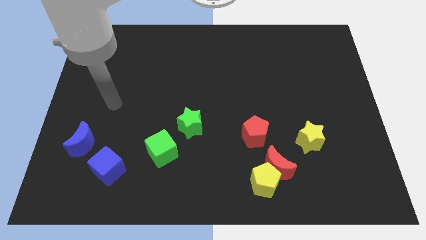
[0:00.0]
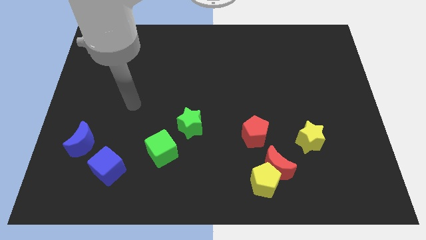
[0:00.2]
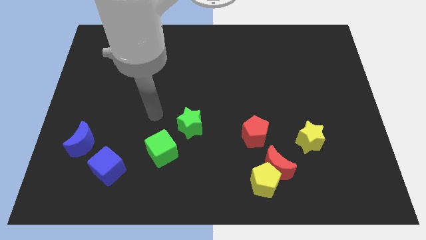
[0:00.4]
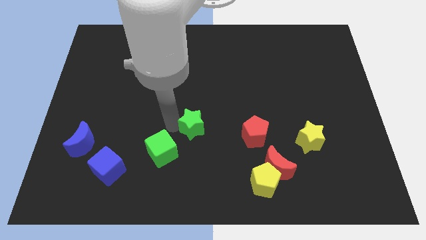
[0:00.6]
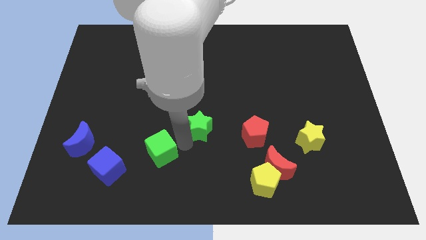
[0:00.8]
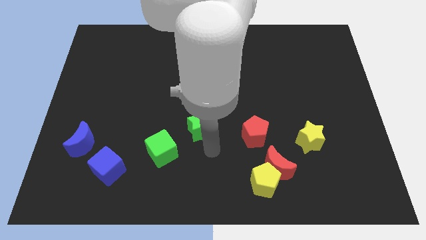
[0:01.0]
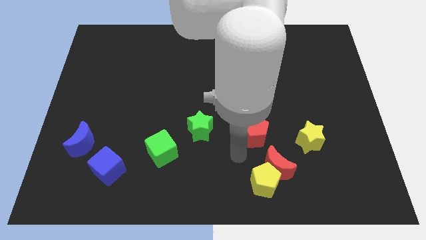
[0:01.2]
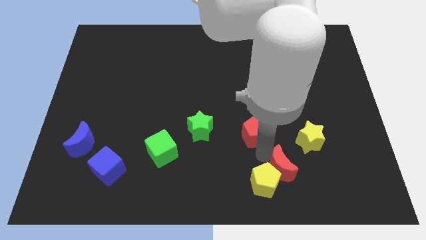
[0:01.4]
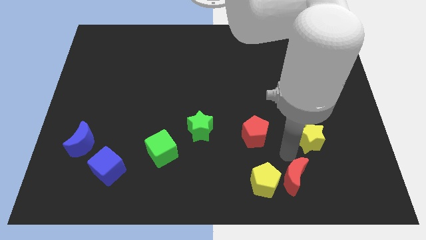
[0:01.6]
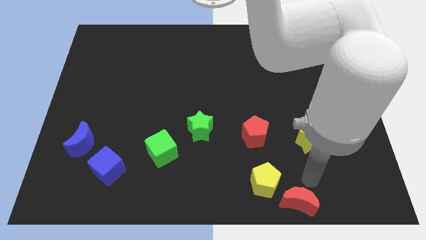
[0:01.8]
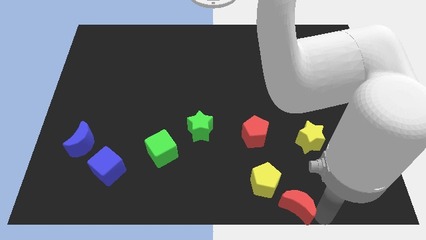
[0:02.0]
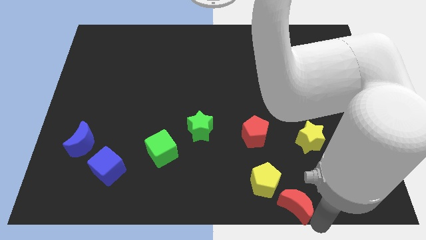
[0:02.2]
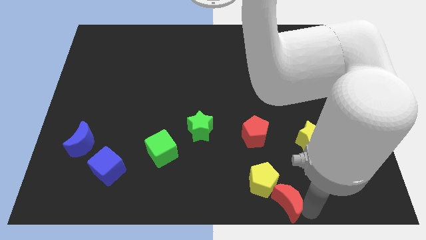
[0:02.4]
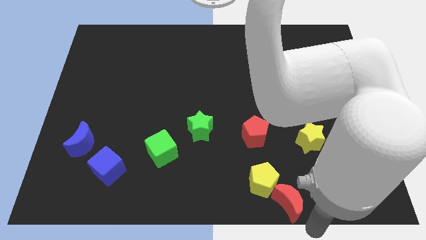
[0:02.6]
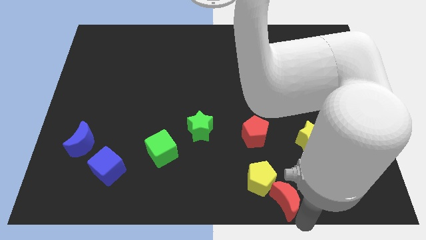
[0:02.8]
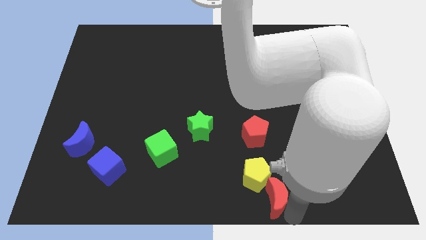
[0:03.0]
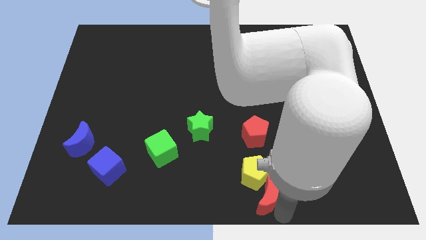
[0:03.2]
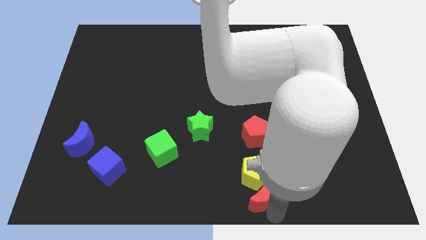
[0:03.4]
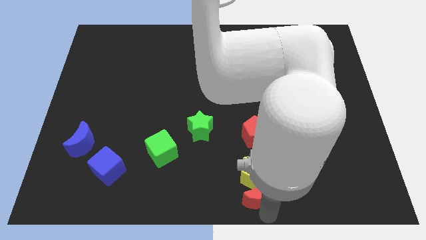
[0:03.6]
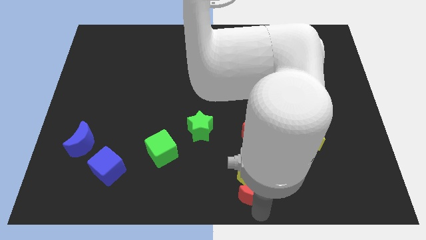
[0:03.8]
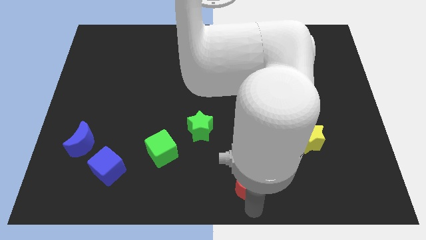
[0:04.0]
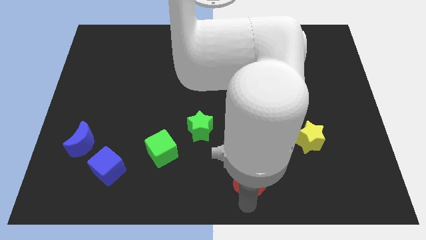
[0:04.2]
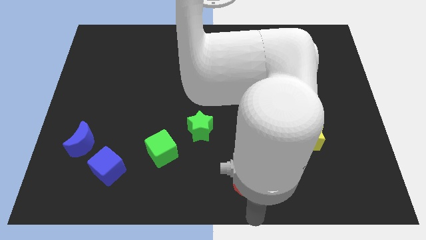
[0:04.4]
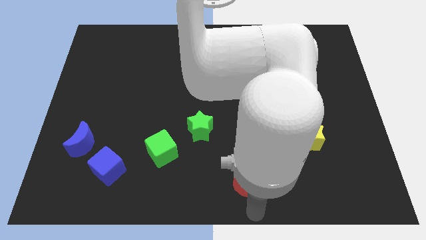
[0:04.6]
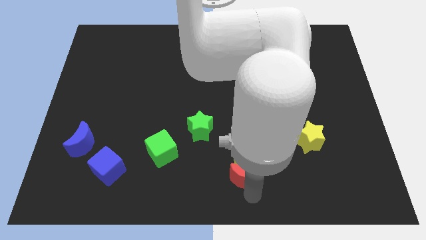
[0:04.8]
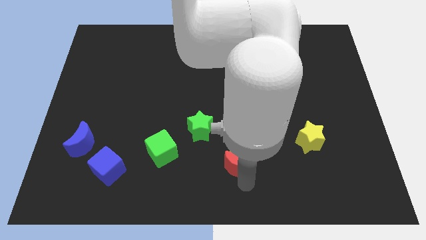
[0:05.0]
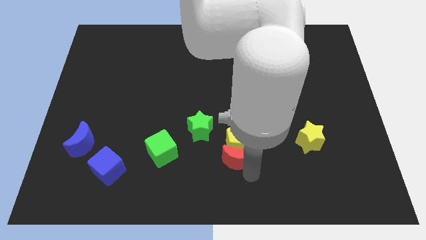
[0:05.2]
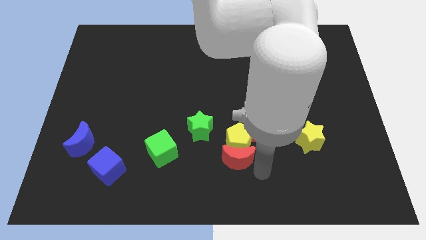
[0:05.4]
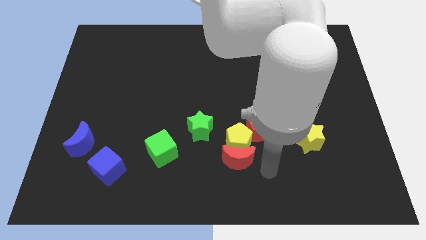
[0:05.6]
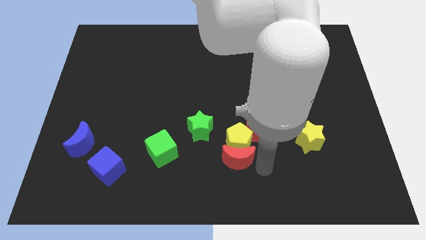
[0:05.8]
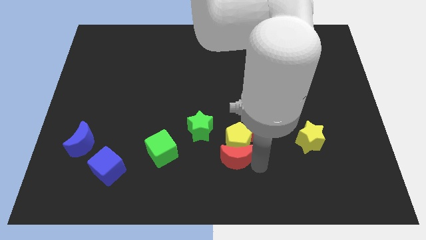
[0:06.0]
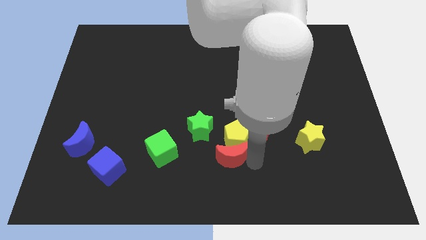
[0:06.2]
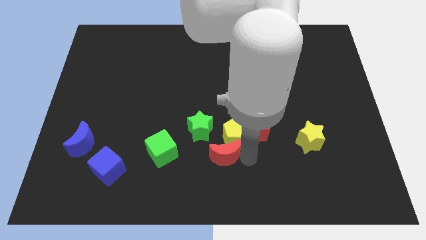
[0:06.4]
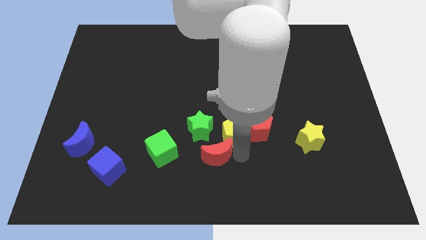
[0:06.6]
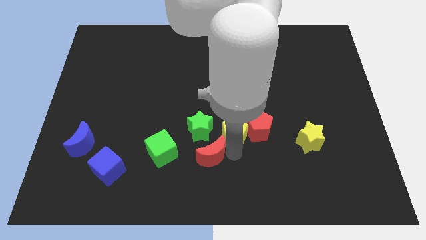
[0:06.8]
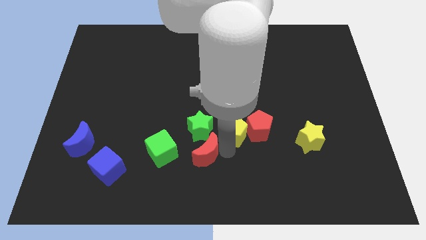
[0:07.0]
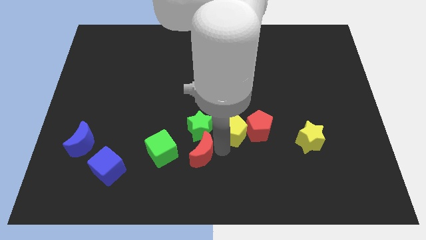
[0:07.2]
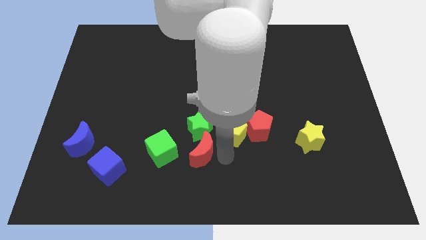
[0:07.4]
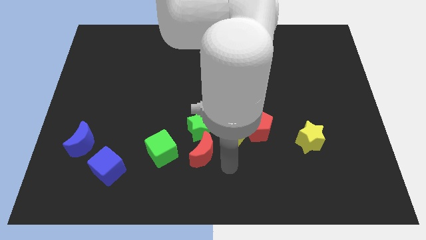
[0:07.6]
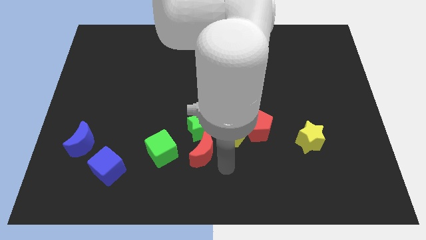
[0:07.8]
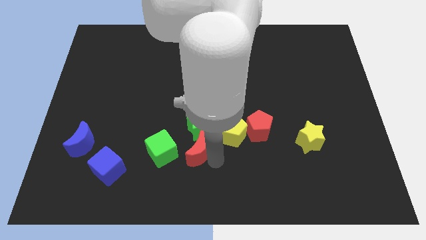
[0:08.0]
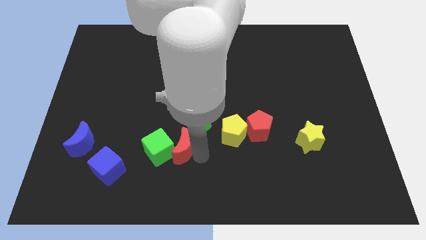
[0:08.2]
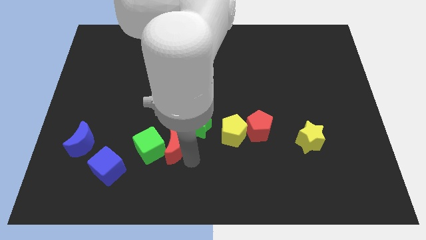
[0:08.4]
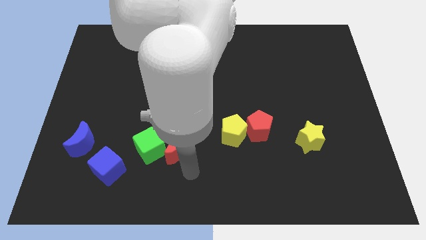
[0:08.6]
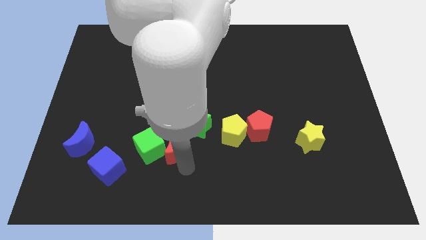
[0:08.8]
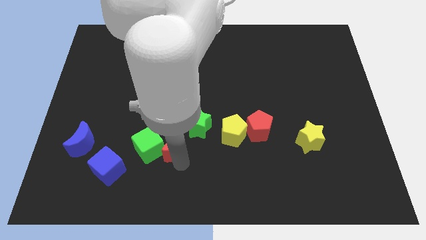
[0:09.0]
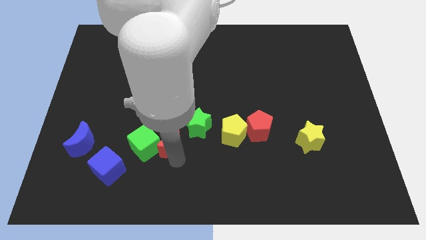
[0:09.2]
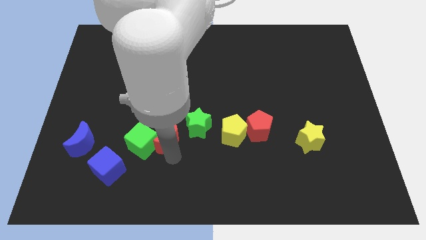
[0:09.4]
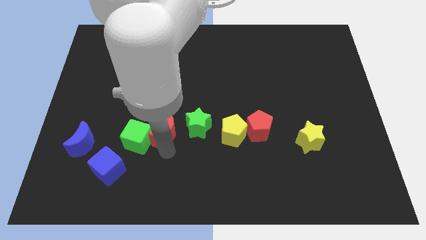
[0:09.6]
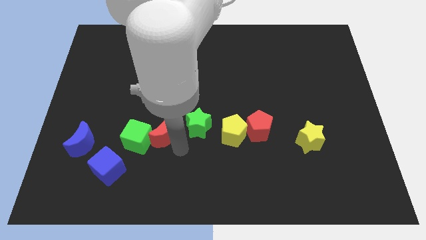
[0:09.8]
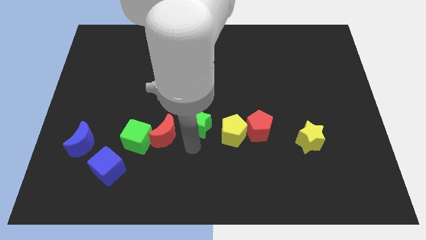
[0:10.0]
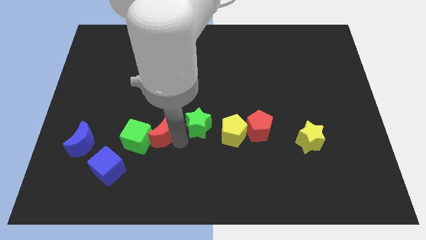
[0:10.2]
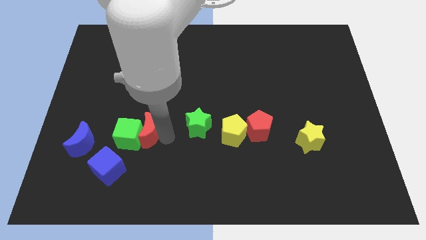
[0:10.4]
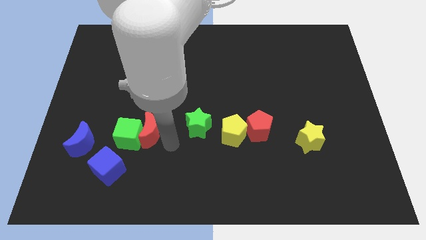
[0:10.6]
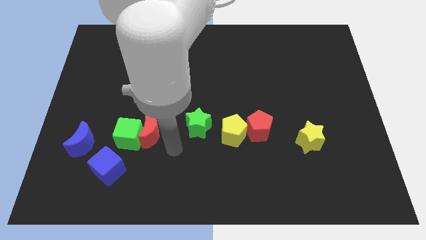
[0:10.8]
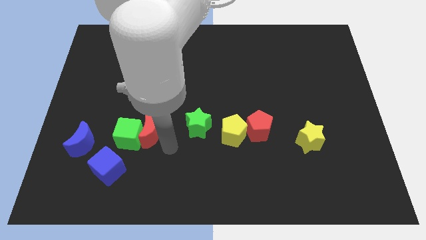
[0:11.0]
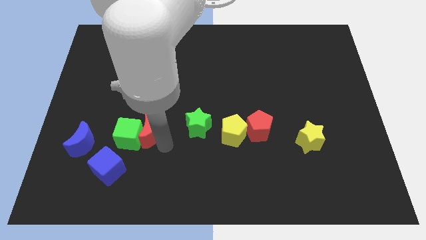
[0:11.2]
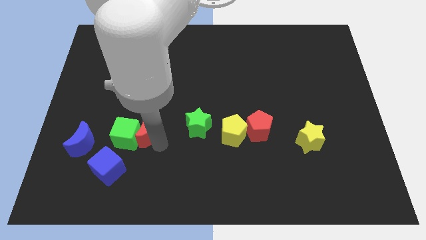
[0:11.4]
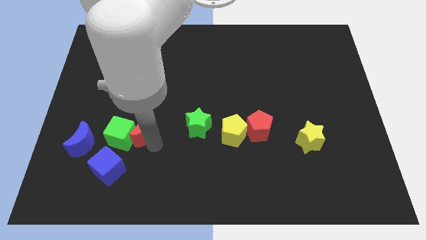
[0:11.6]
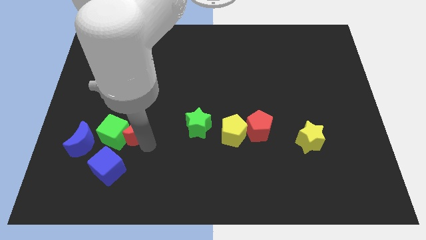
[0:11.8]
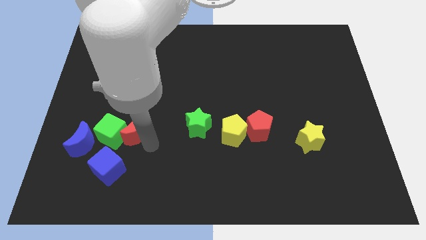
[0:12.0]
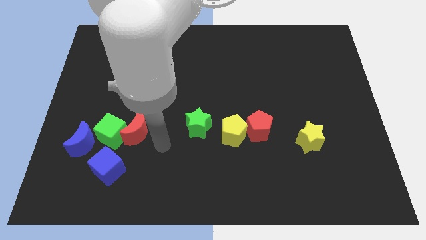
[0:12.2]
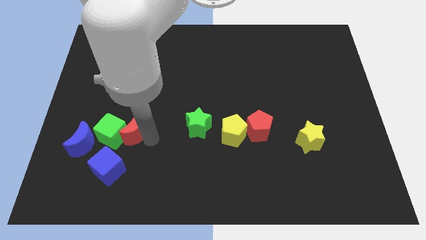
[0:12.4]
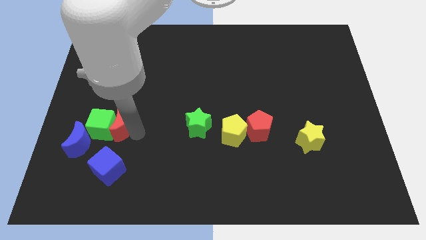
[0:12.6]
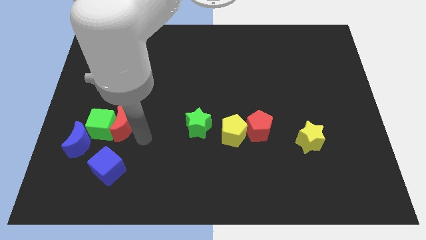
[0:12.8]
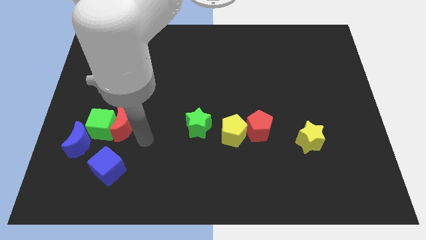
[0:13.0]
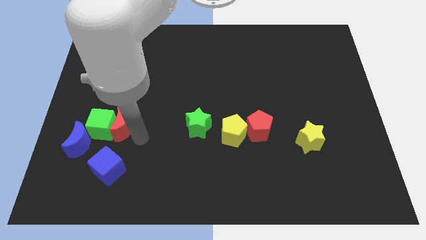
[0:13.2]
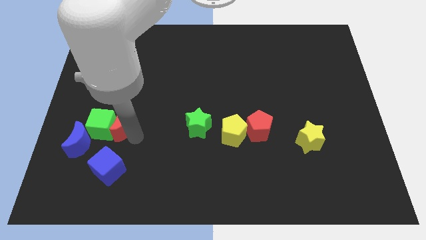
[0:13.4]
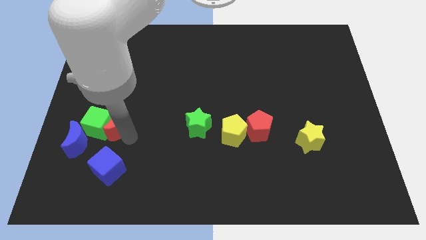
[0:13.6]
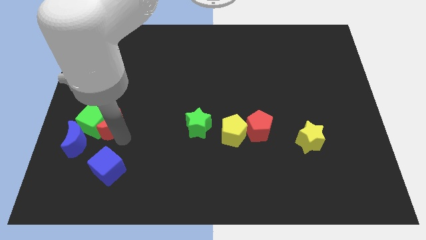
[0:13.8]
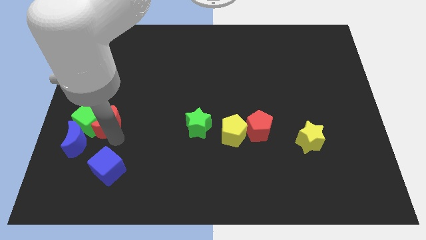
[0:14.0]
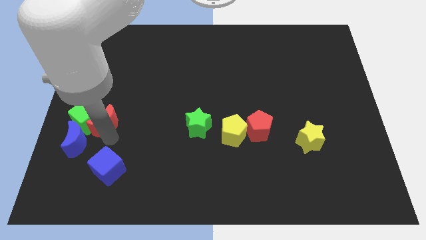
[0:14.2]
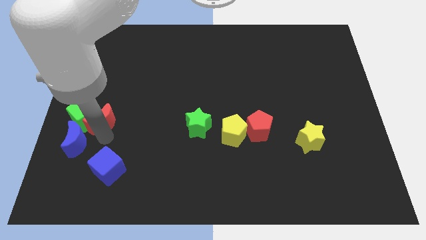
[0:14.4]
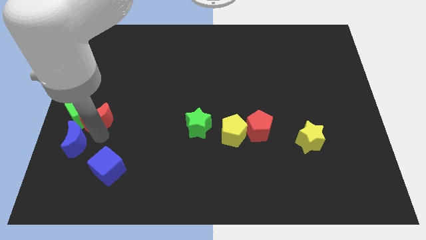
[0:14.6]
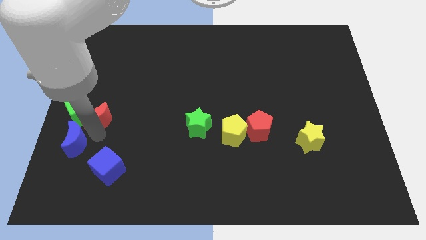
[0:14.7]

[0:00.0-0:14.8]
push the red moon to the left side of the board
